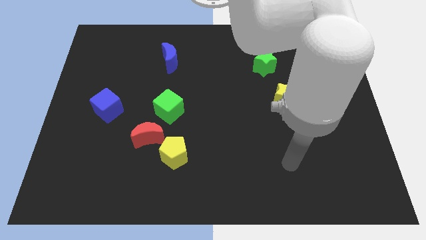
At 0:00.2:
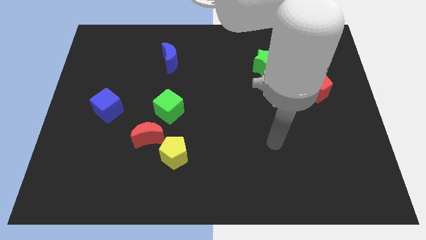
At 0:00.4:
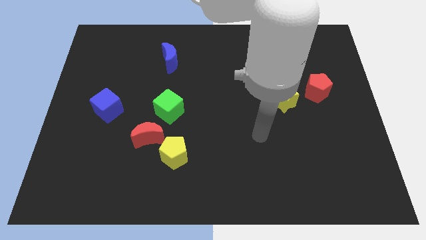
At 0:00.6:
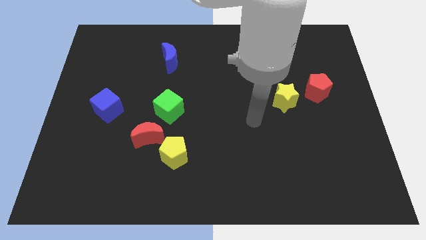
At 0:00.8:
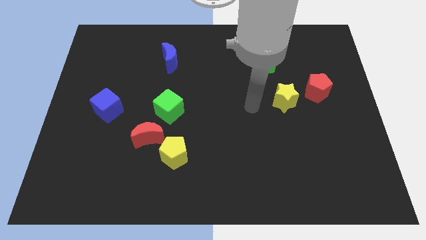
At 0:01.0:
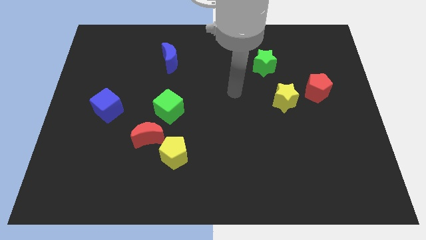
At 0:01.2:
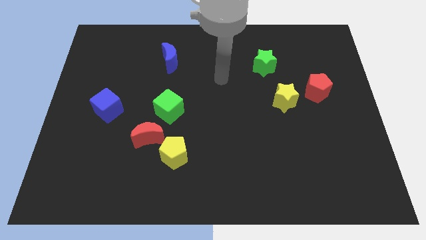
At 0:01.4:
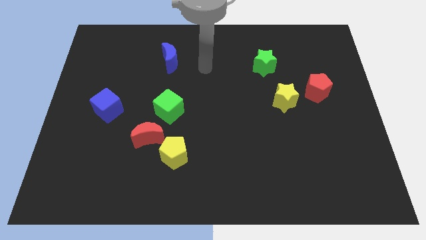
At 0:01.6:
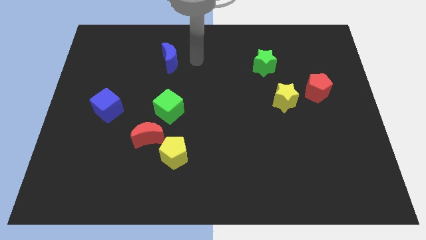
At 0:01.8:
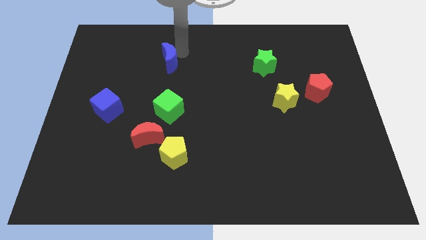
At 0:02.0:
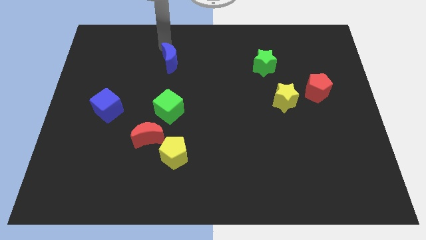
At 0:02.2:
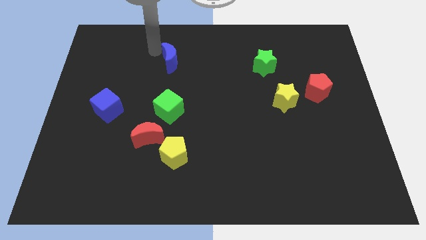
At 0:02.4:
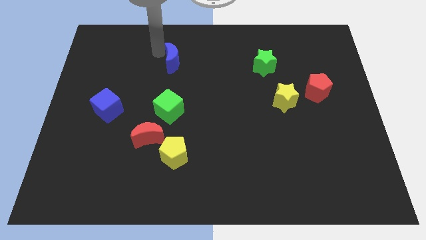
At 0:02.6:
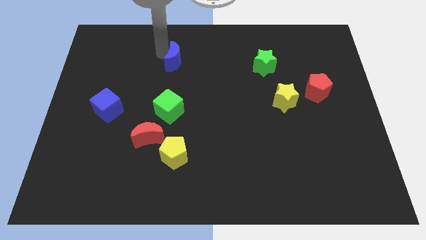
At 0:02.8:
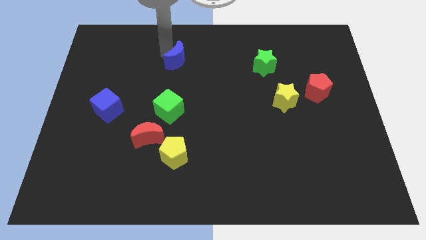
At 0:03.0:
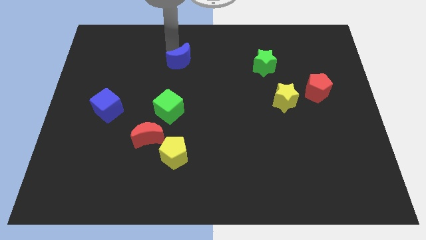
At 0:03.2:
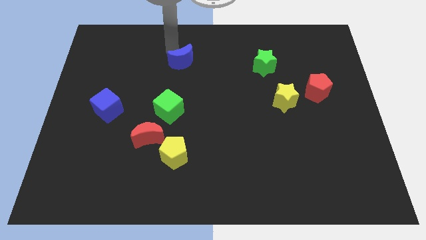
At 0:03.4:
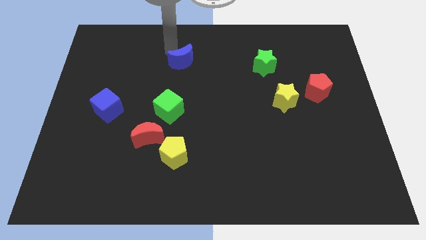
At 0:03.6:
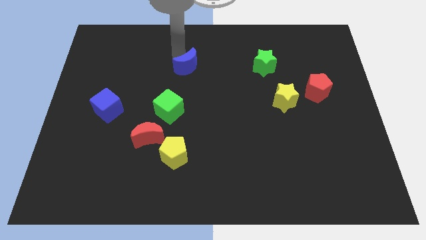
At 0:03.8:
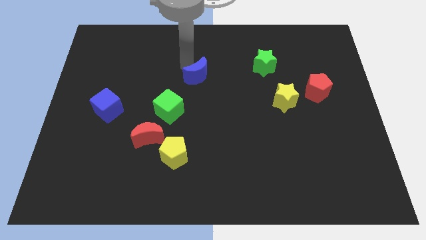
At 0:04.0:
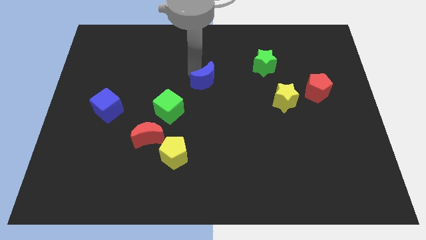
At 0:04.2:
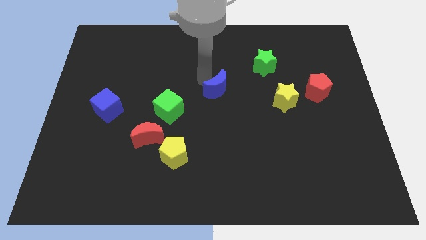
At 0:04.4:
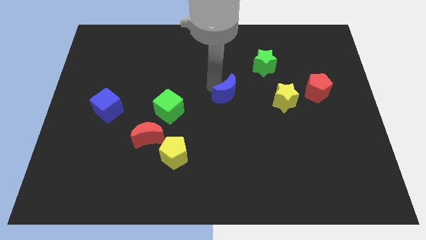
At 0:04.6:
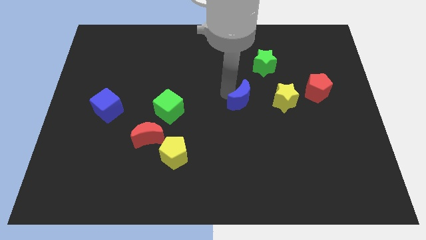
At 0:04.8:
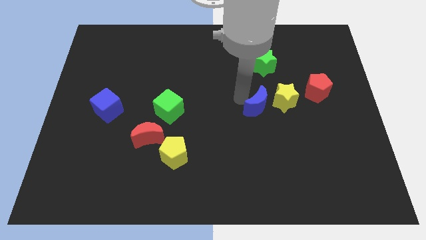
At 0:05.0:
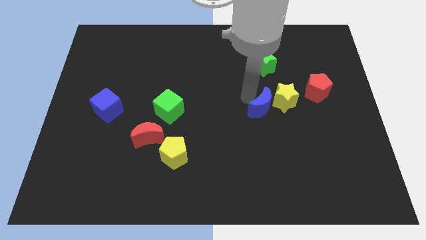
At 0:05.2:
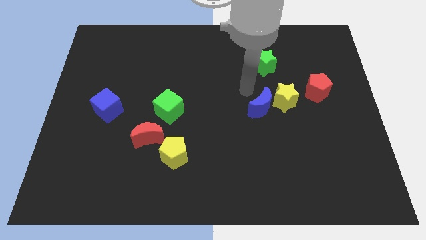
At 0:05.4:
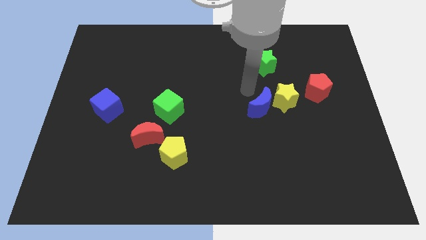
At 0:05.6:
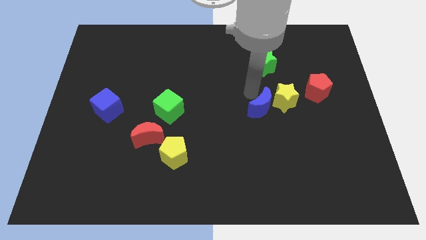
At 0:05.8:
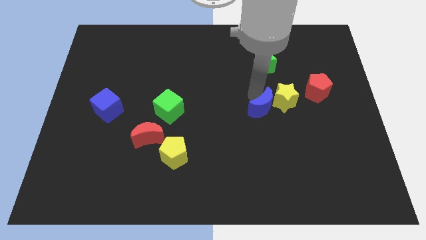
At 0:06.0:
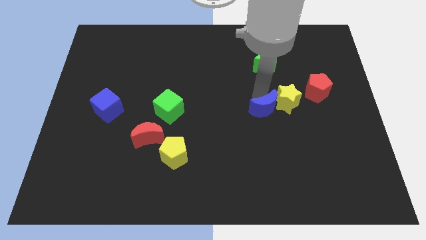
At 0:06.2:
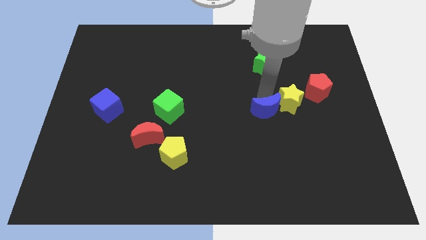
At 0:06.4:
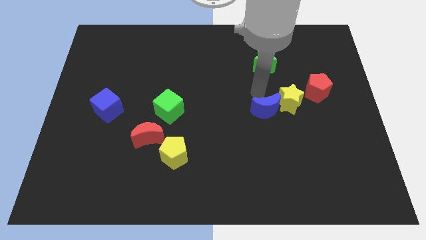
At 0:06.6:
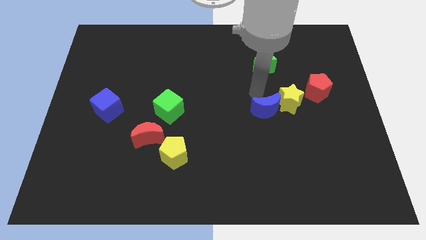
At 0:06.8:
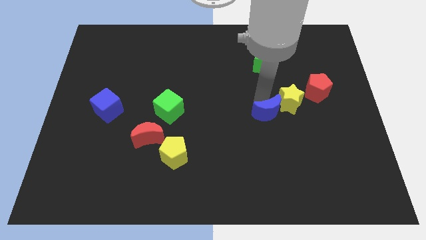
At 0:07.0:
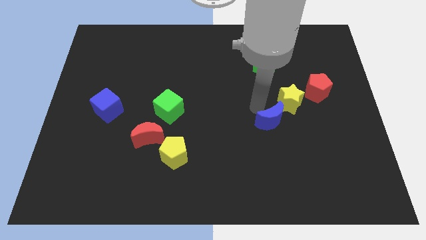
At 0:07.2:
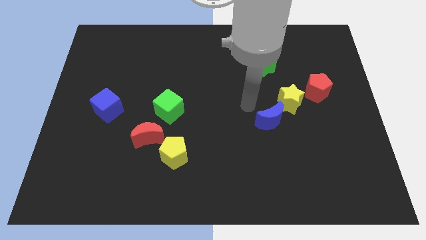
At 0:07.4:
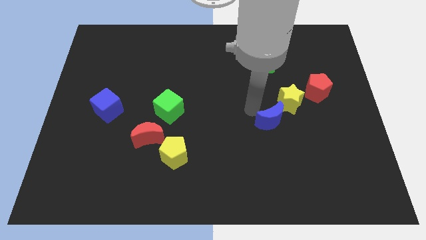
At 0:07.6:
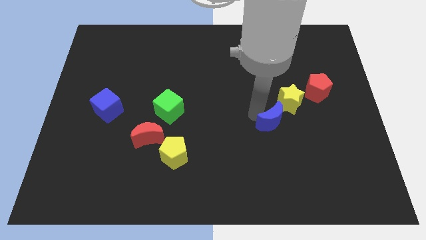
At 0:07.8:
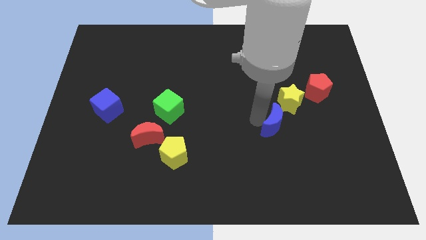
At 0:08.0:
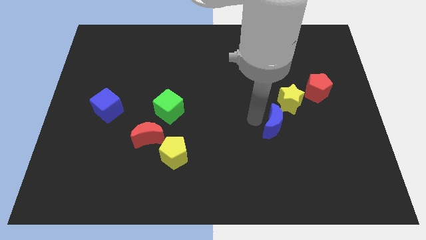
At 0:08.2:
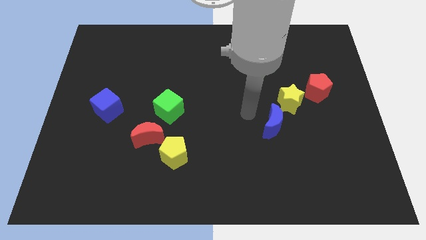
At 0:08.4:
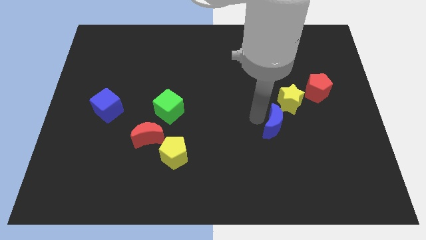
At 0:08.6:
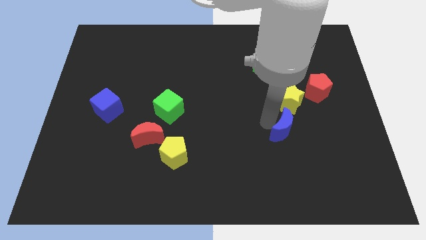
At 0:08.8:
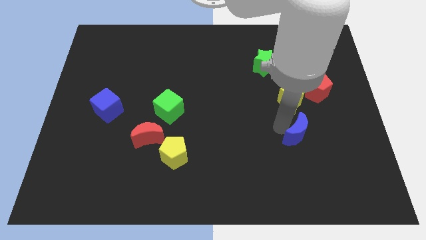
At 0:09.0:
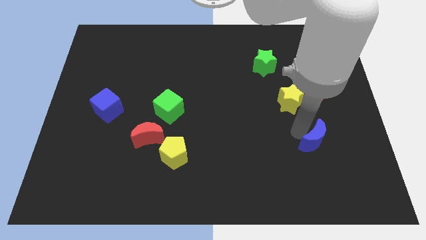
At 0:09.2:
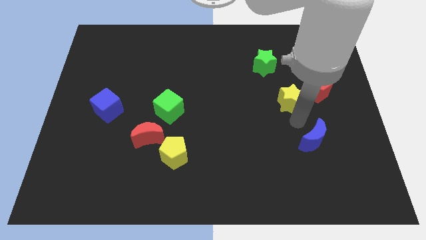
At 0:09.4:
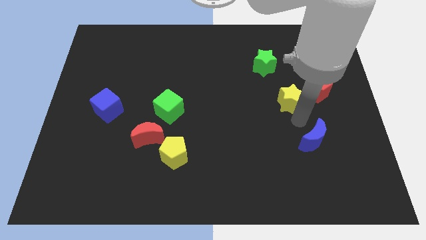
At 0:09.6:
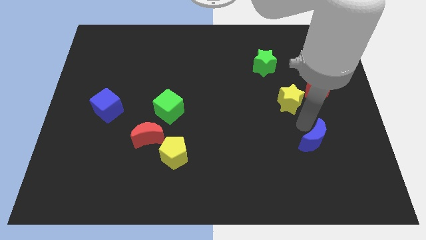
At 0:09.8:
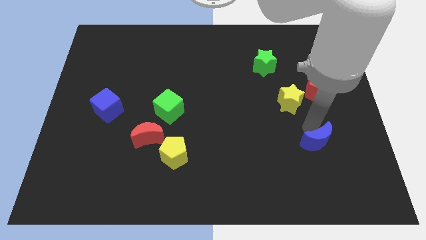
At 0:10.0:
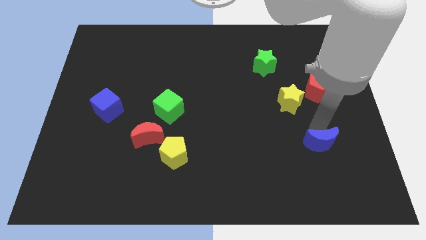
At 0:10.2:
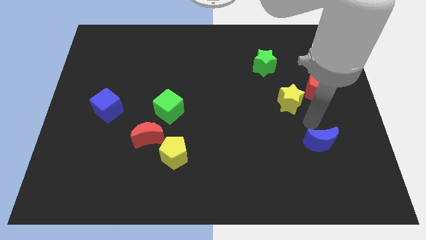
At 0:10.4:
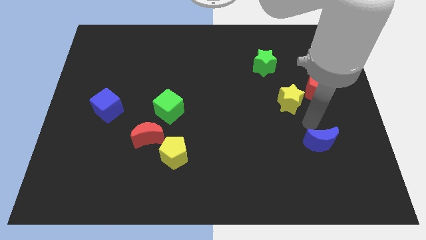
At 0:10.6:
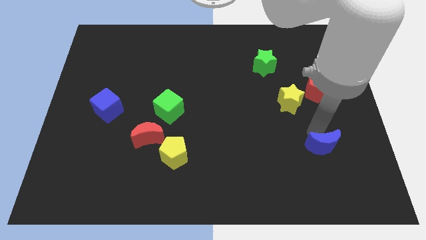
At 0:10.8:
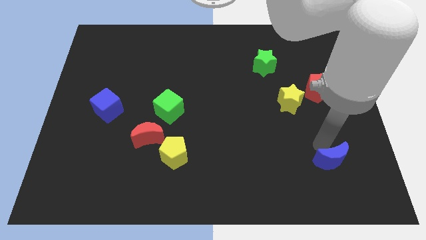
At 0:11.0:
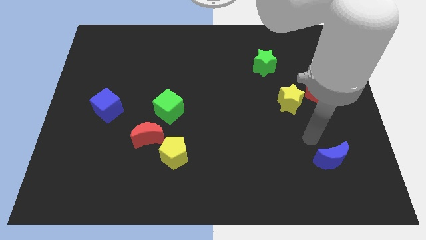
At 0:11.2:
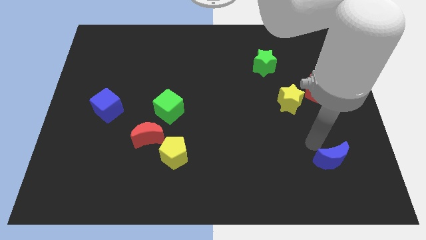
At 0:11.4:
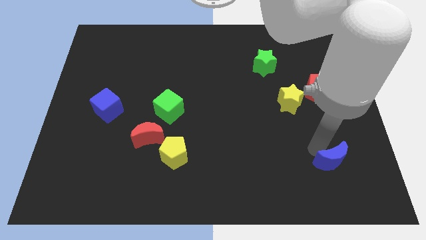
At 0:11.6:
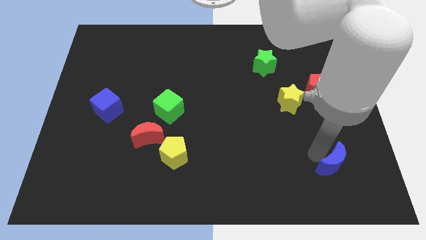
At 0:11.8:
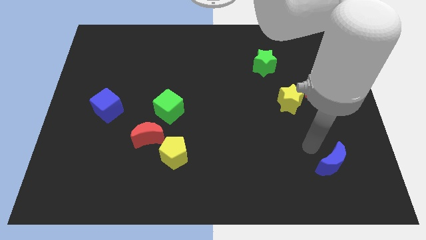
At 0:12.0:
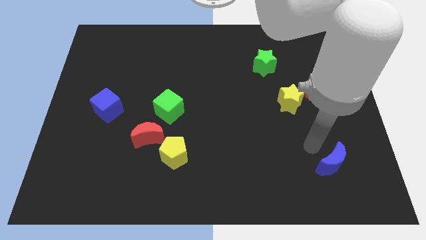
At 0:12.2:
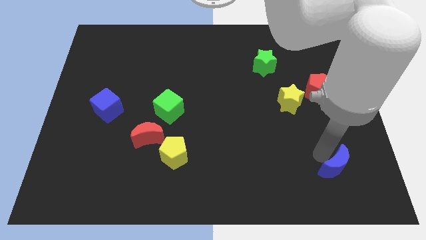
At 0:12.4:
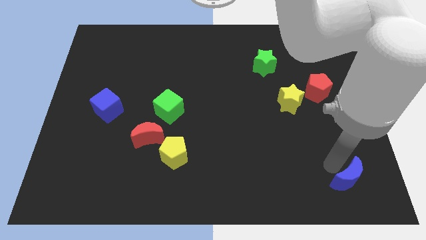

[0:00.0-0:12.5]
push the blue moon to the bottom right
